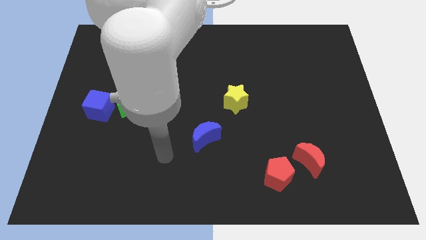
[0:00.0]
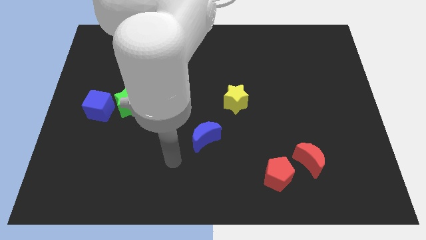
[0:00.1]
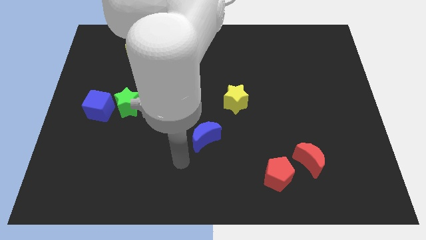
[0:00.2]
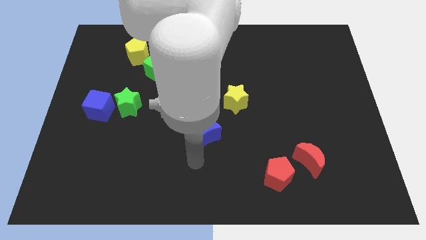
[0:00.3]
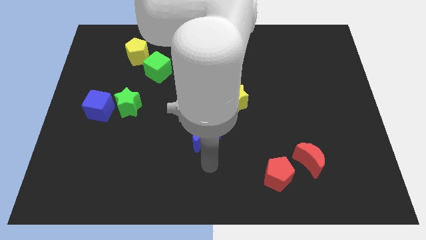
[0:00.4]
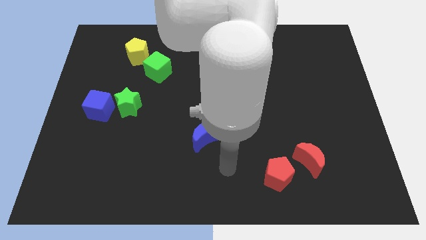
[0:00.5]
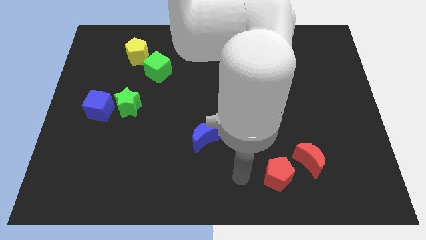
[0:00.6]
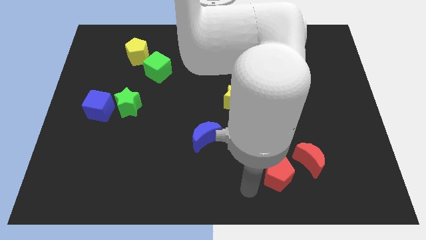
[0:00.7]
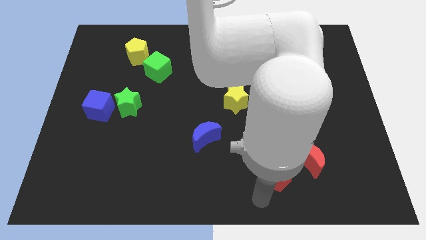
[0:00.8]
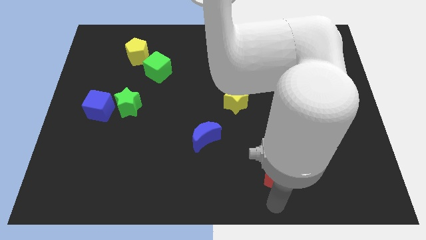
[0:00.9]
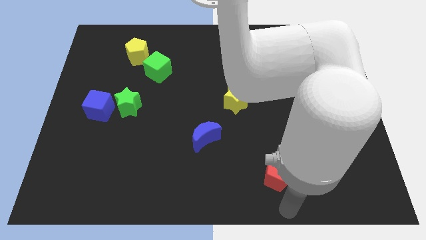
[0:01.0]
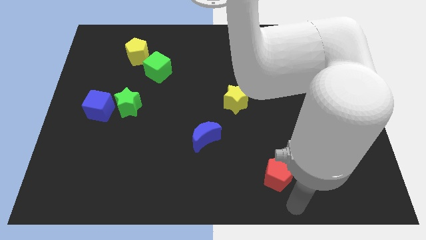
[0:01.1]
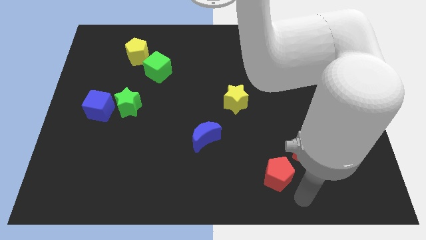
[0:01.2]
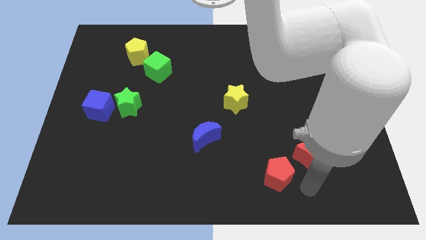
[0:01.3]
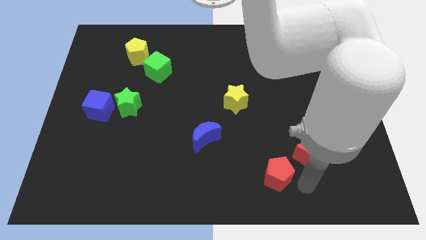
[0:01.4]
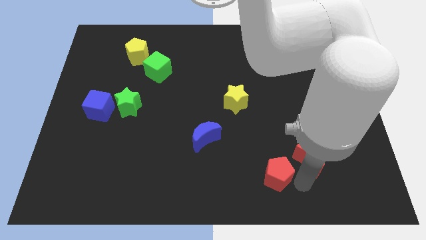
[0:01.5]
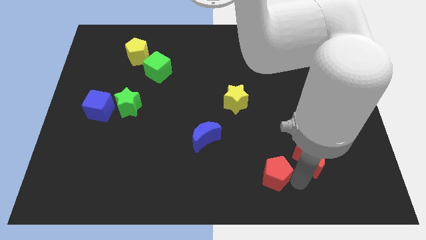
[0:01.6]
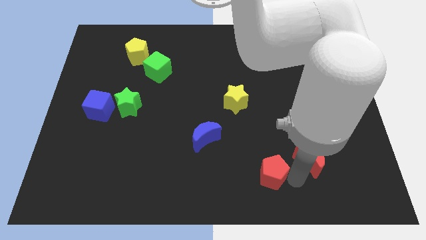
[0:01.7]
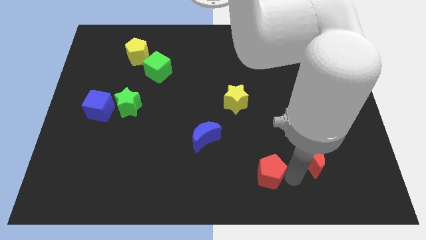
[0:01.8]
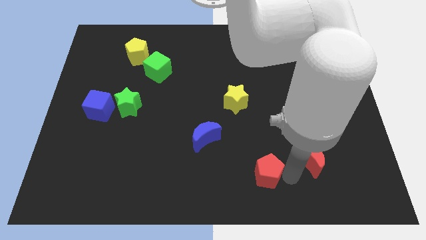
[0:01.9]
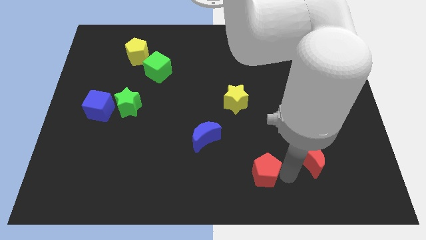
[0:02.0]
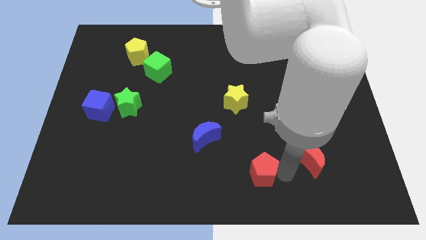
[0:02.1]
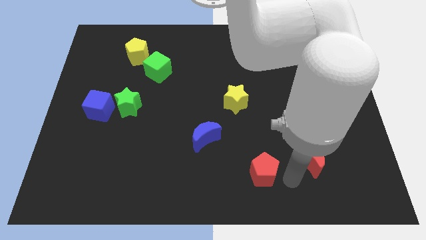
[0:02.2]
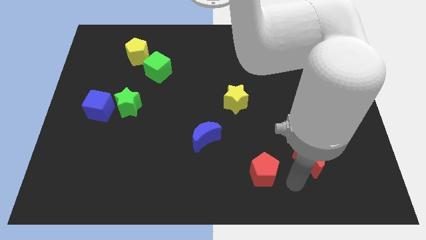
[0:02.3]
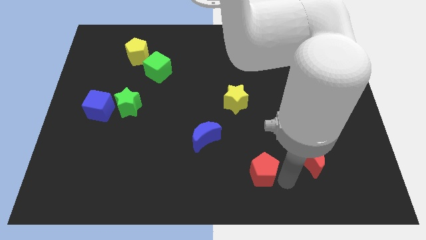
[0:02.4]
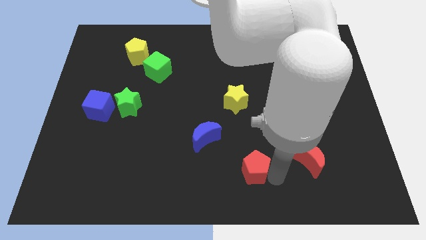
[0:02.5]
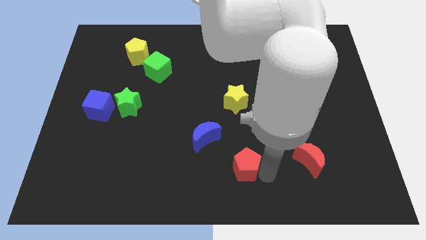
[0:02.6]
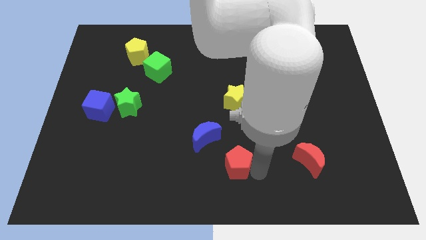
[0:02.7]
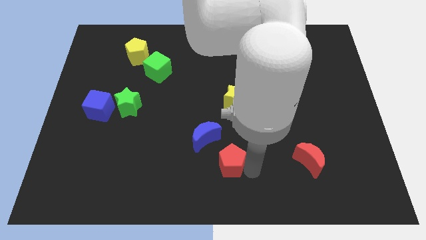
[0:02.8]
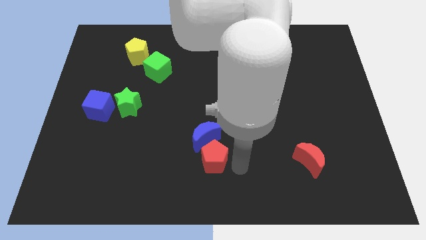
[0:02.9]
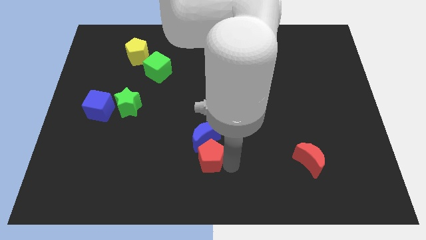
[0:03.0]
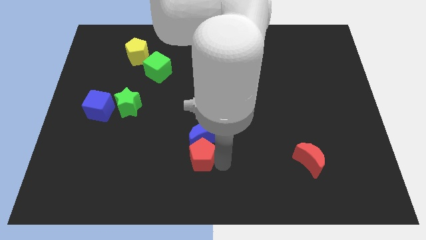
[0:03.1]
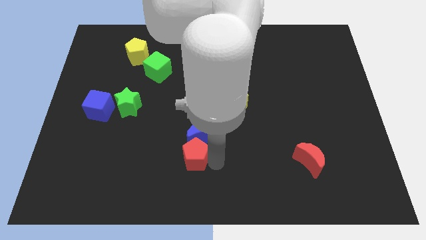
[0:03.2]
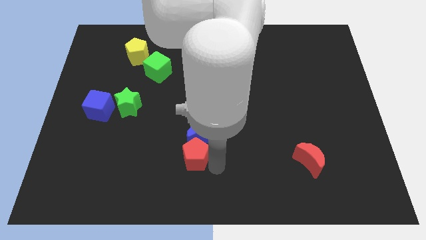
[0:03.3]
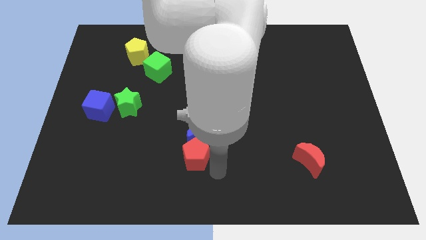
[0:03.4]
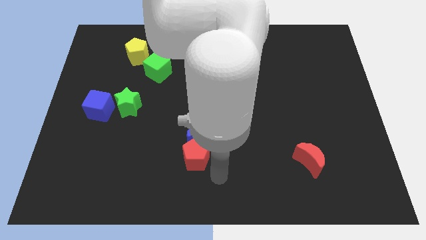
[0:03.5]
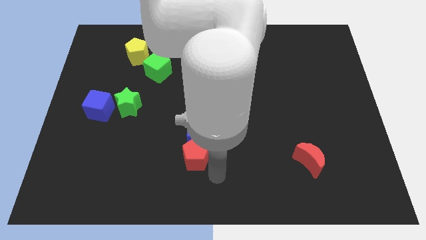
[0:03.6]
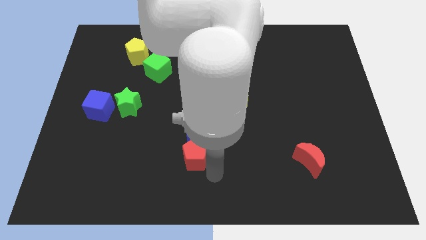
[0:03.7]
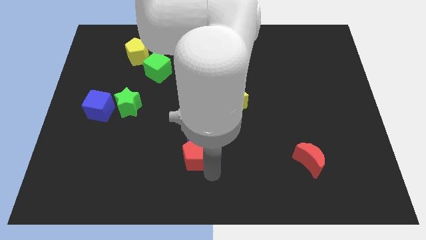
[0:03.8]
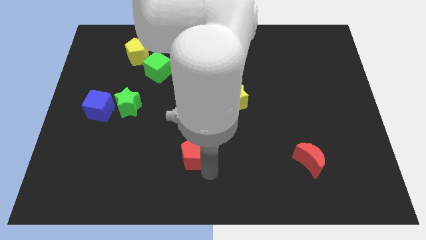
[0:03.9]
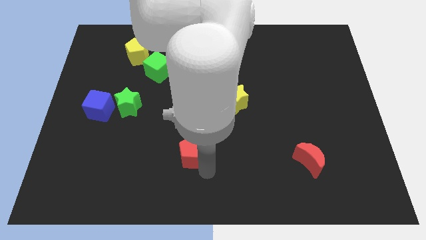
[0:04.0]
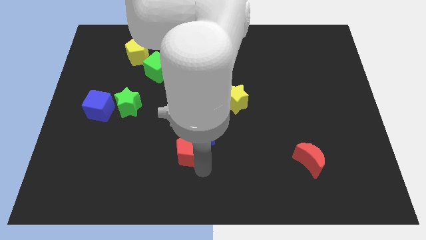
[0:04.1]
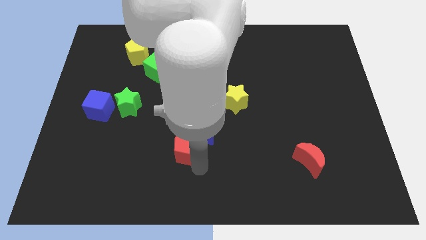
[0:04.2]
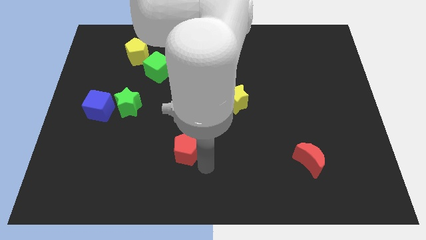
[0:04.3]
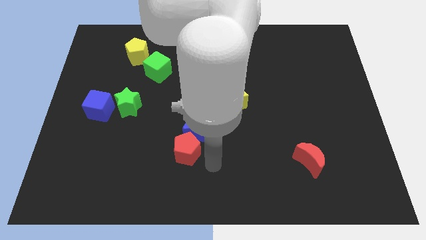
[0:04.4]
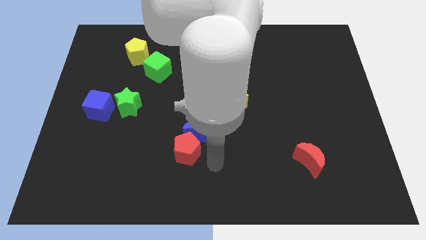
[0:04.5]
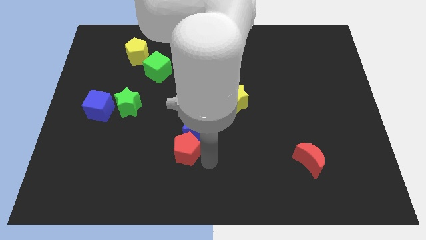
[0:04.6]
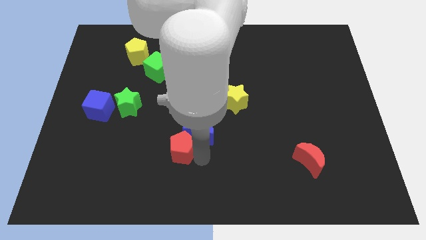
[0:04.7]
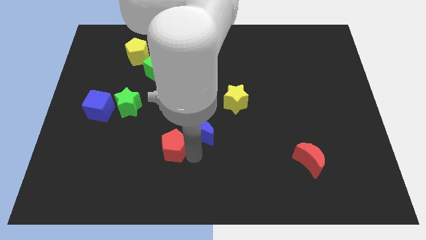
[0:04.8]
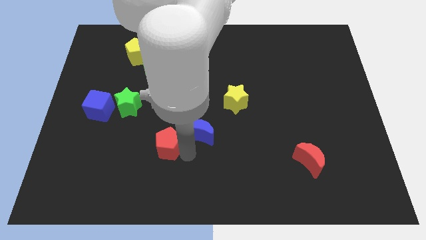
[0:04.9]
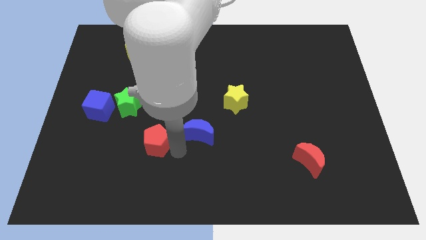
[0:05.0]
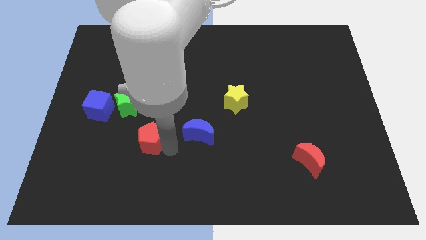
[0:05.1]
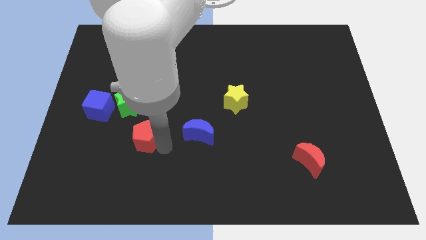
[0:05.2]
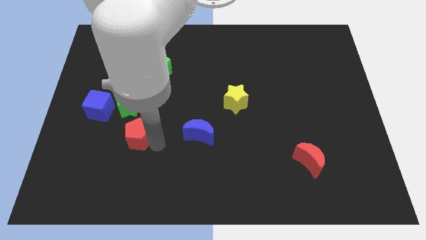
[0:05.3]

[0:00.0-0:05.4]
slide the red pentagon to the bottom right side of the blue cube

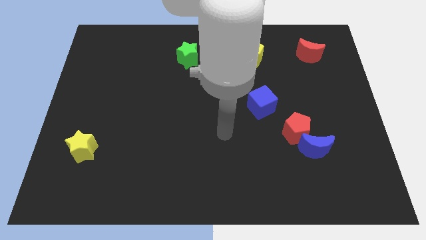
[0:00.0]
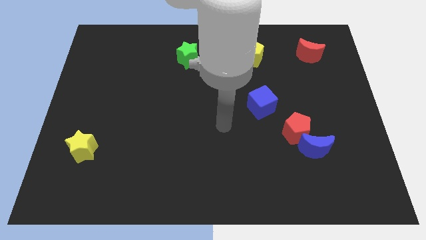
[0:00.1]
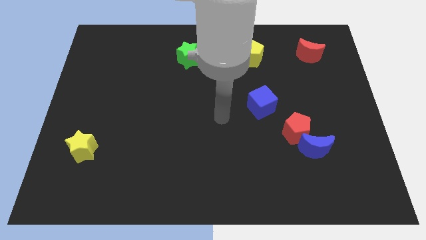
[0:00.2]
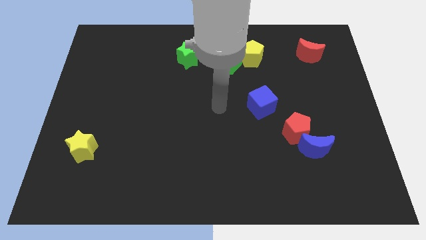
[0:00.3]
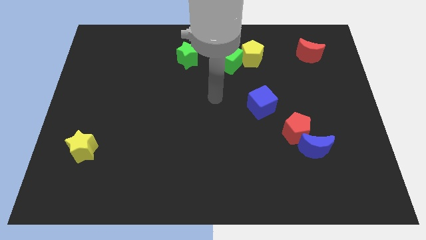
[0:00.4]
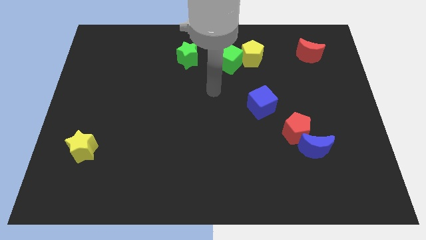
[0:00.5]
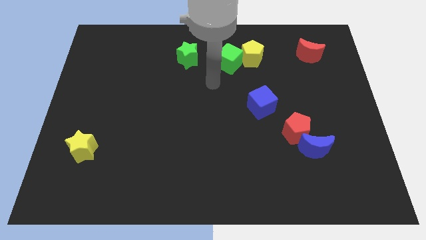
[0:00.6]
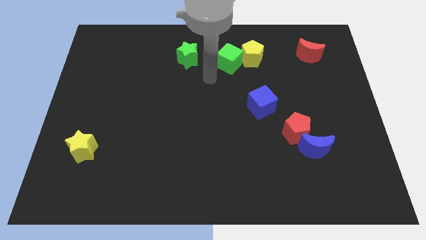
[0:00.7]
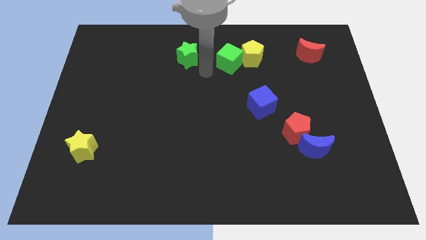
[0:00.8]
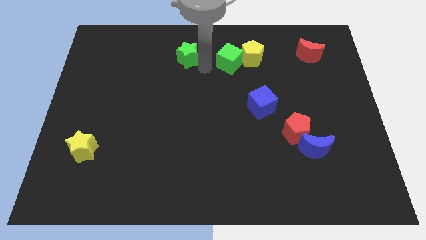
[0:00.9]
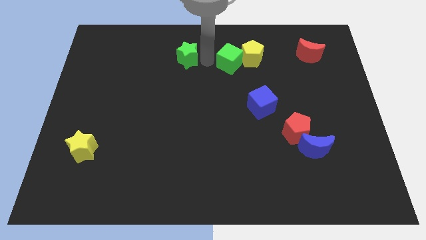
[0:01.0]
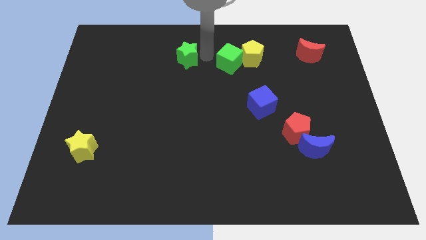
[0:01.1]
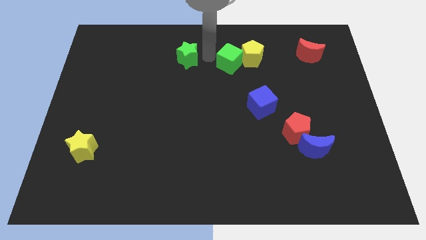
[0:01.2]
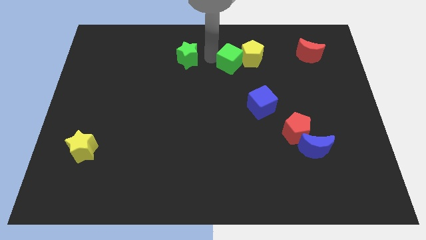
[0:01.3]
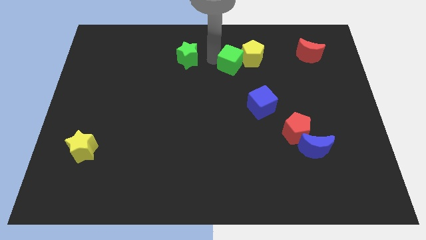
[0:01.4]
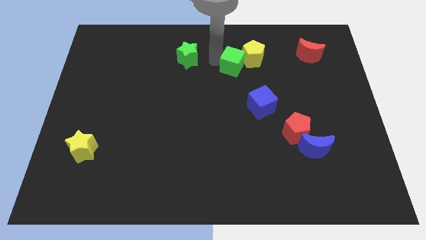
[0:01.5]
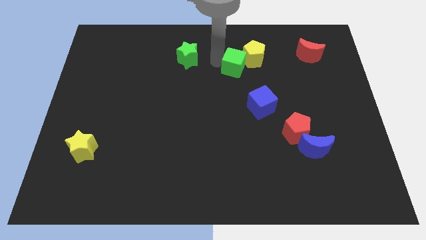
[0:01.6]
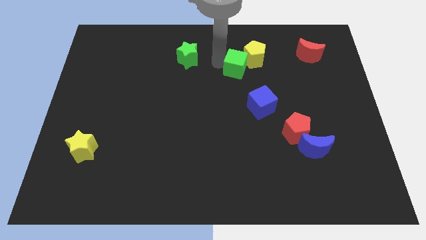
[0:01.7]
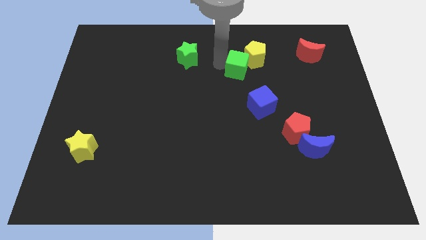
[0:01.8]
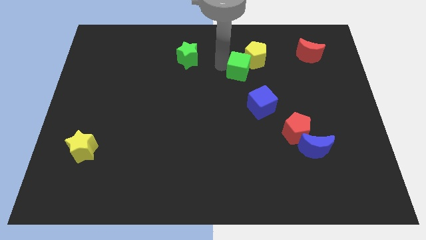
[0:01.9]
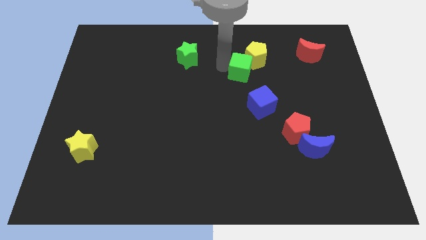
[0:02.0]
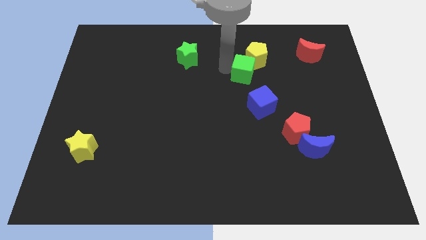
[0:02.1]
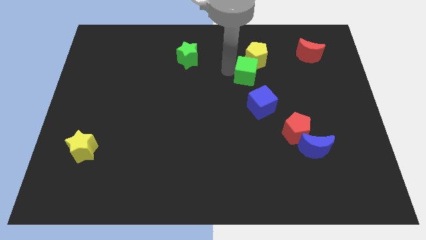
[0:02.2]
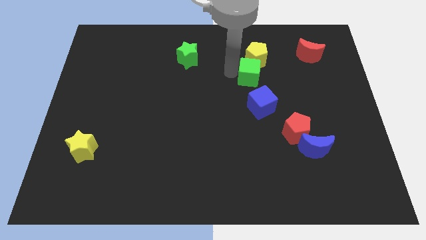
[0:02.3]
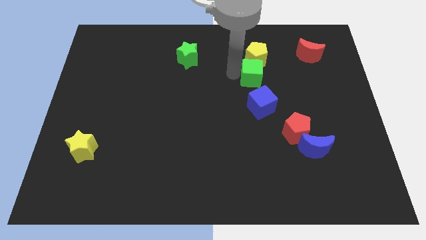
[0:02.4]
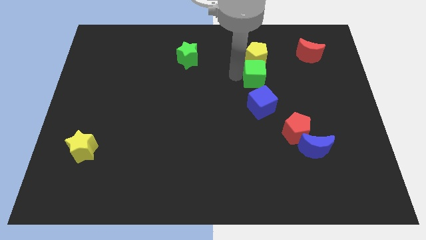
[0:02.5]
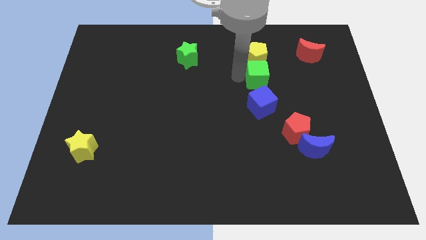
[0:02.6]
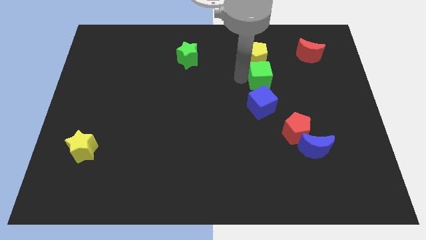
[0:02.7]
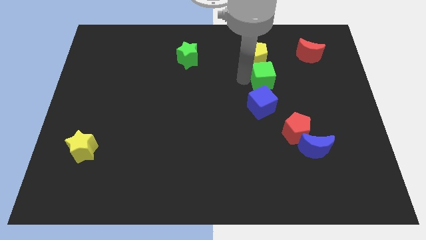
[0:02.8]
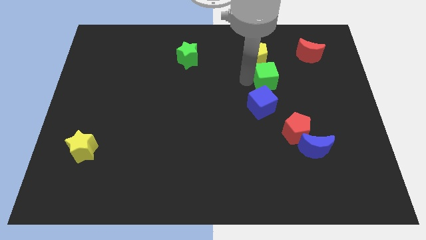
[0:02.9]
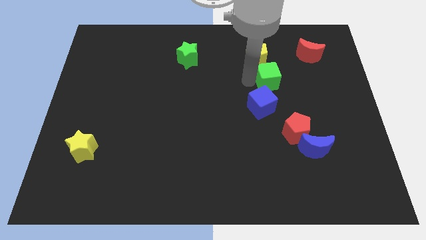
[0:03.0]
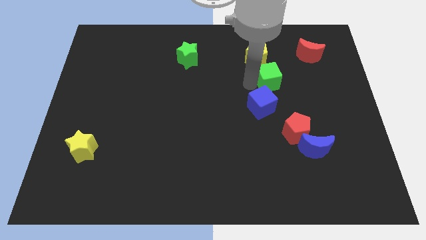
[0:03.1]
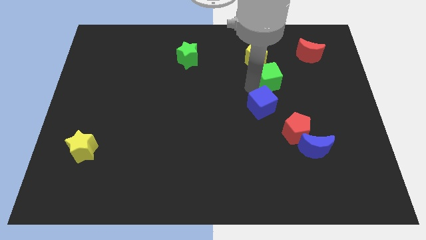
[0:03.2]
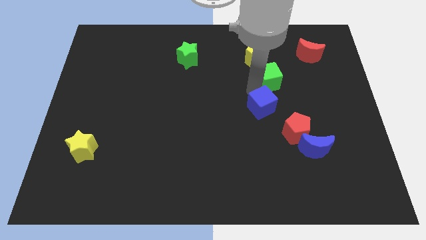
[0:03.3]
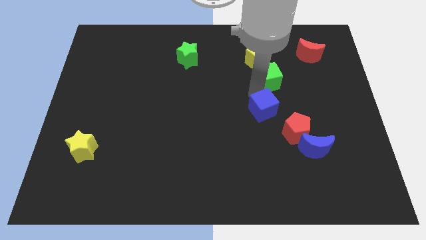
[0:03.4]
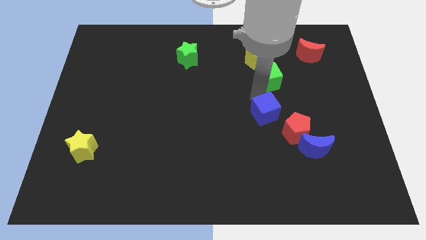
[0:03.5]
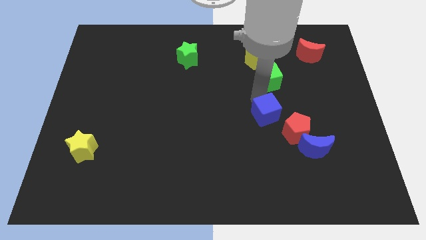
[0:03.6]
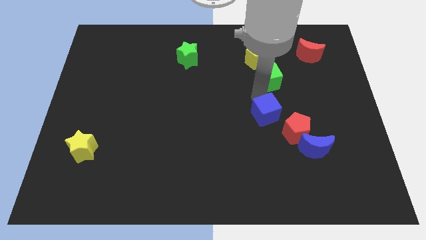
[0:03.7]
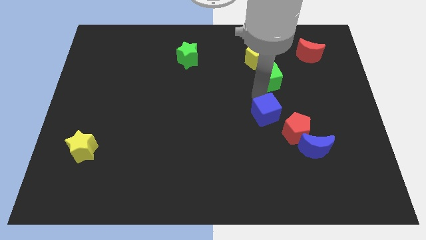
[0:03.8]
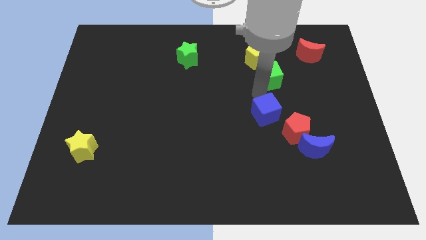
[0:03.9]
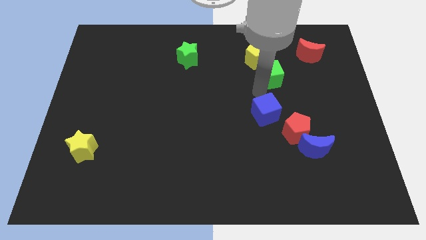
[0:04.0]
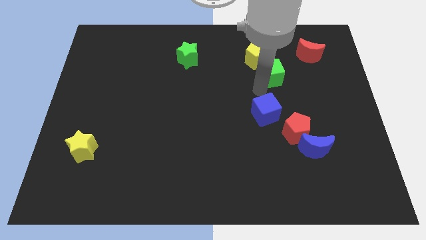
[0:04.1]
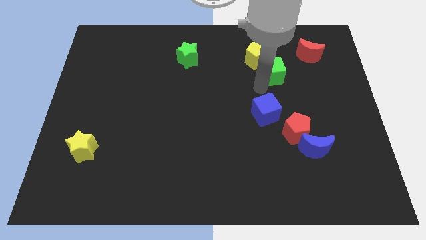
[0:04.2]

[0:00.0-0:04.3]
push the green cube to the bottom left of the red moon
